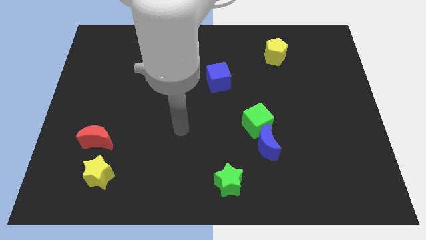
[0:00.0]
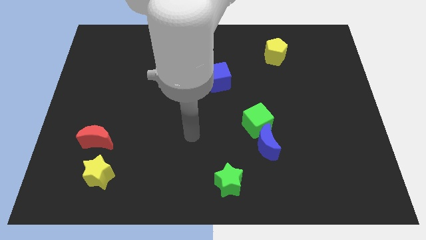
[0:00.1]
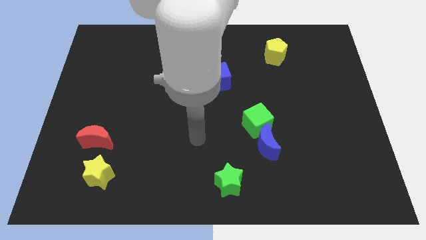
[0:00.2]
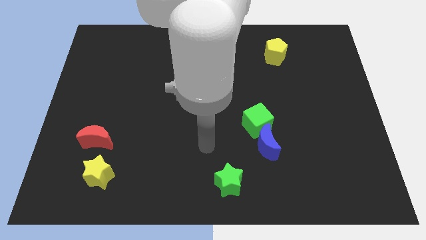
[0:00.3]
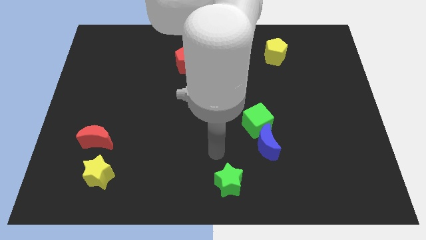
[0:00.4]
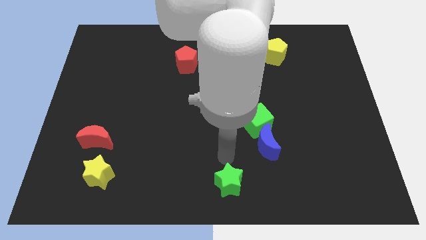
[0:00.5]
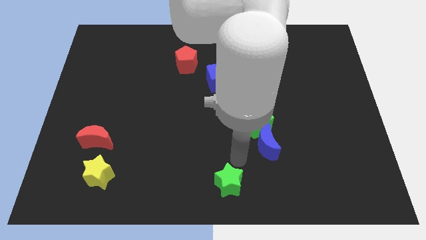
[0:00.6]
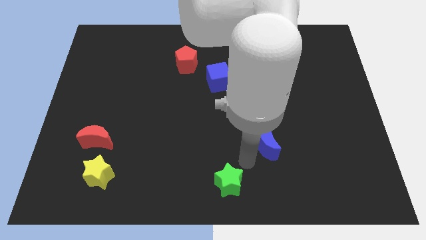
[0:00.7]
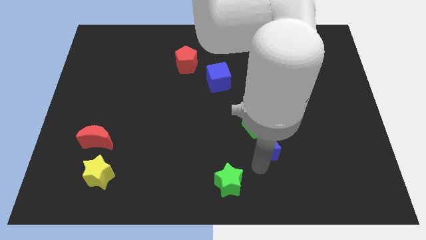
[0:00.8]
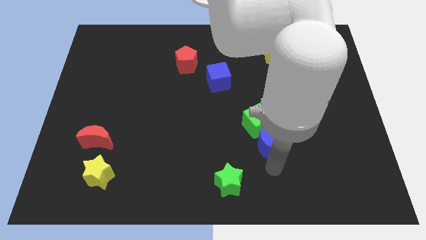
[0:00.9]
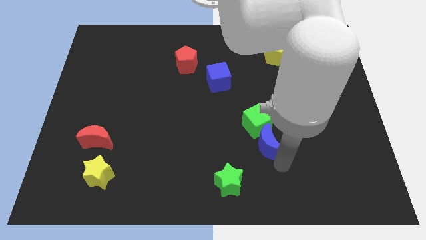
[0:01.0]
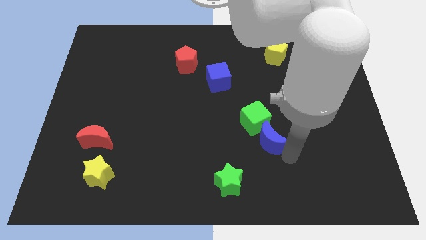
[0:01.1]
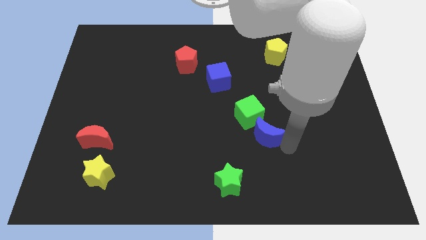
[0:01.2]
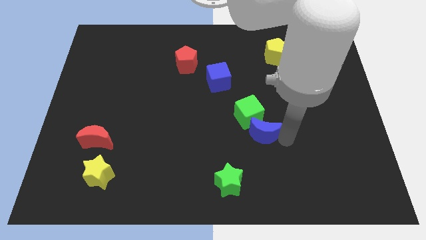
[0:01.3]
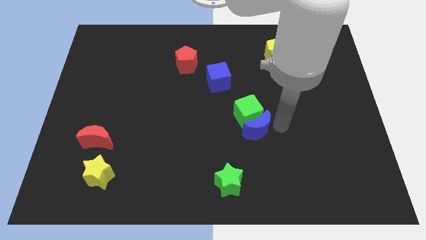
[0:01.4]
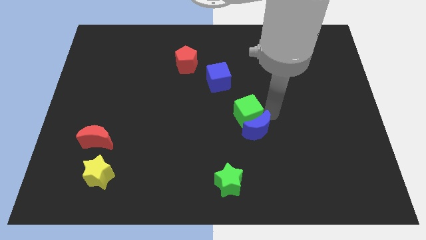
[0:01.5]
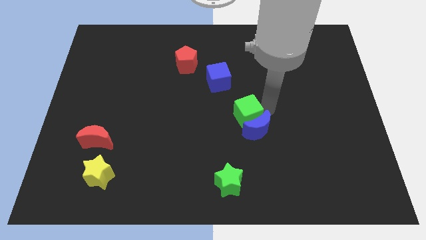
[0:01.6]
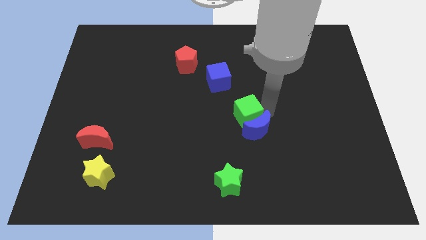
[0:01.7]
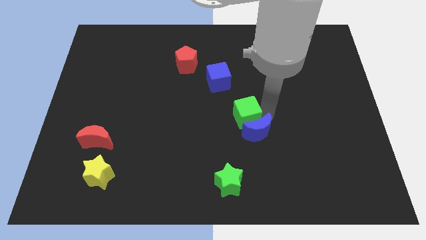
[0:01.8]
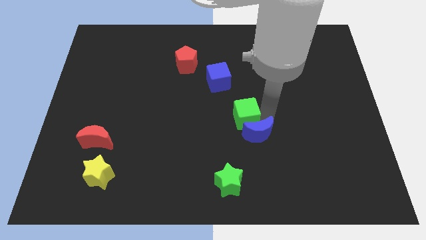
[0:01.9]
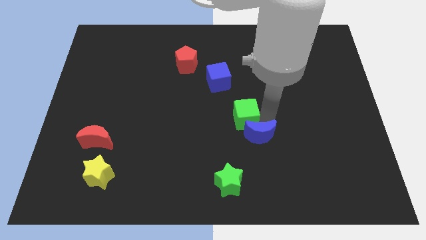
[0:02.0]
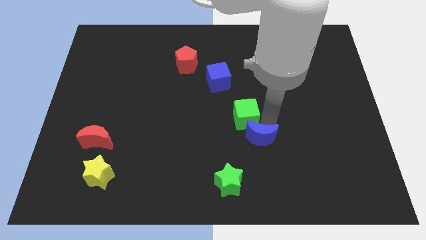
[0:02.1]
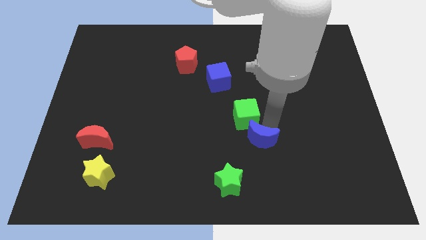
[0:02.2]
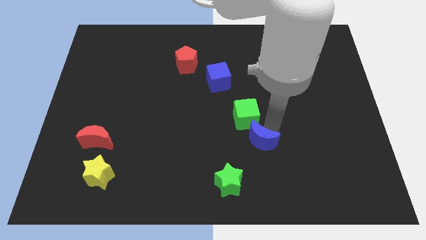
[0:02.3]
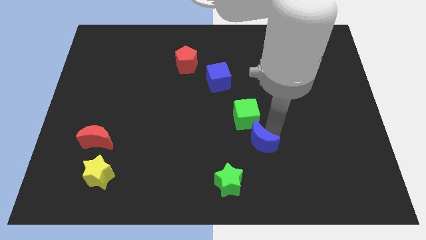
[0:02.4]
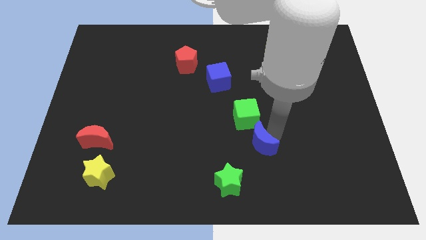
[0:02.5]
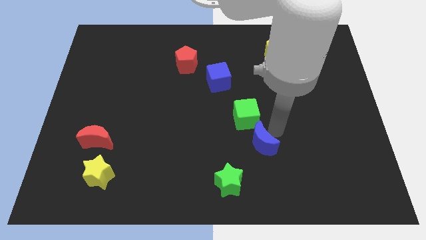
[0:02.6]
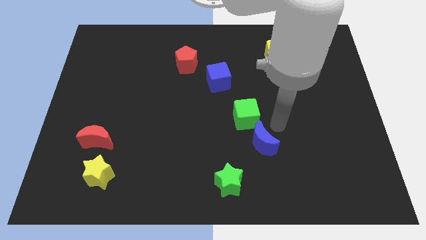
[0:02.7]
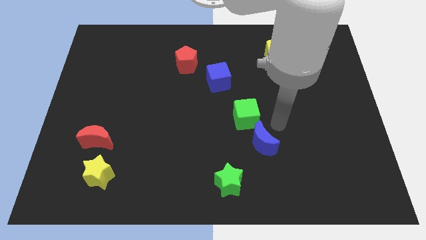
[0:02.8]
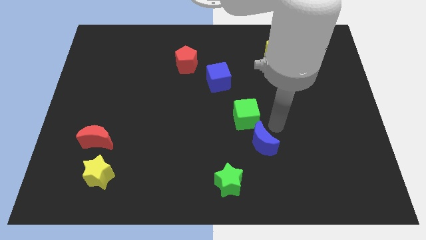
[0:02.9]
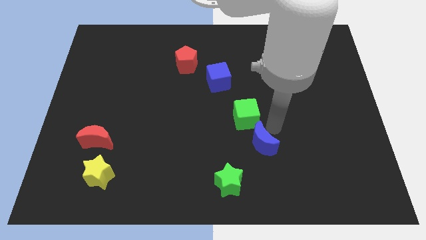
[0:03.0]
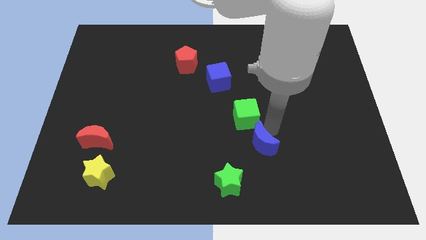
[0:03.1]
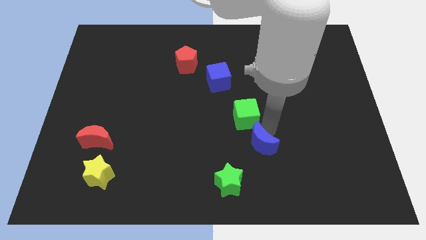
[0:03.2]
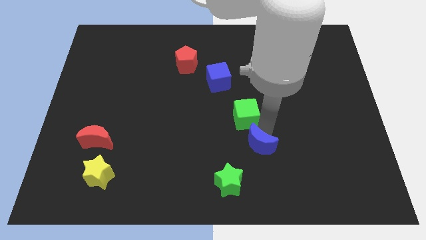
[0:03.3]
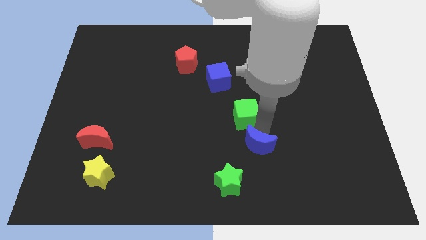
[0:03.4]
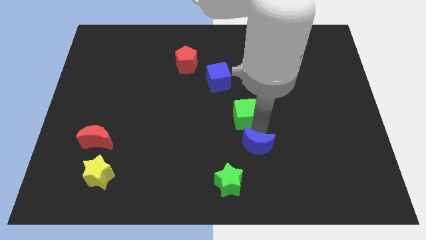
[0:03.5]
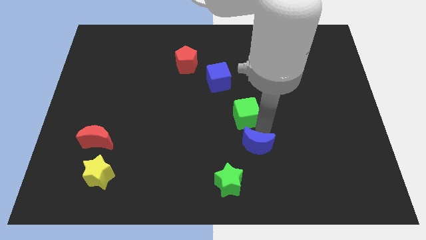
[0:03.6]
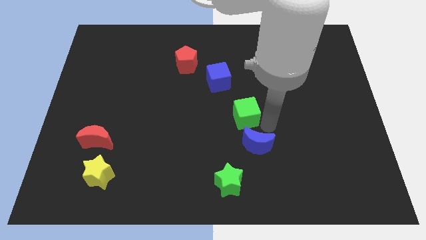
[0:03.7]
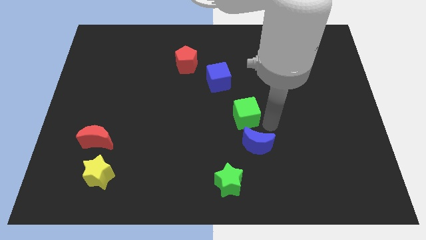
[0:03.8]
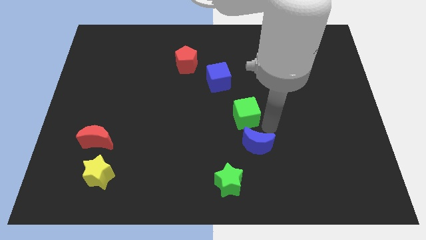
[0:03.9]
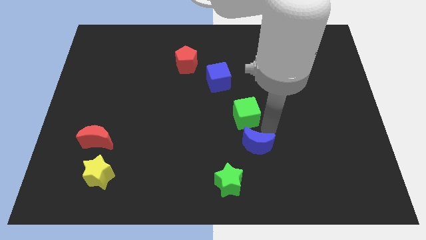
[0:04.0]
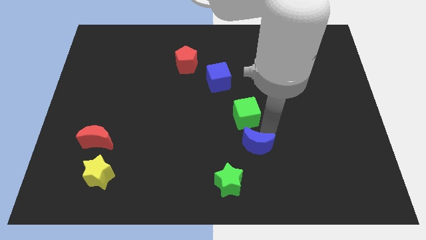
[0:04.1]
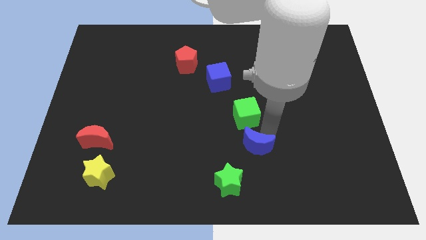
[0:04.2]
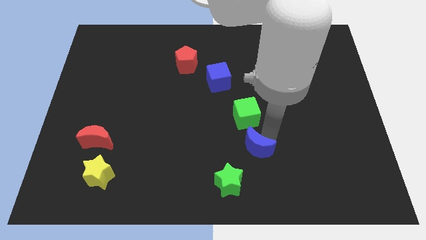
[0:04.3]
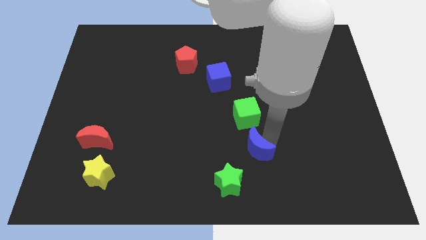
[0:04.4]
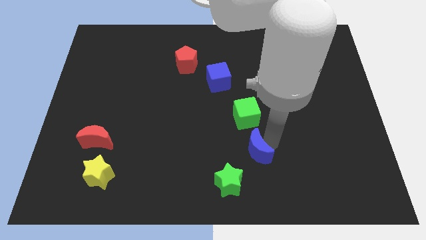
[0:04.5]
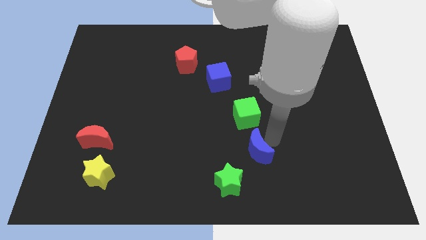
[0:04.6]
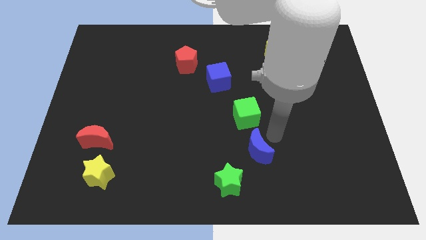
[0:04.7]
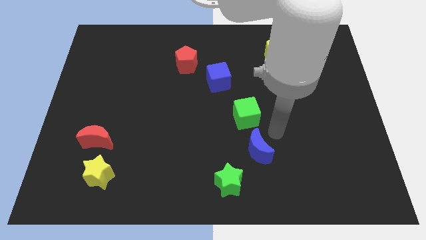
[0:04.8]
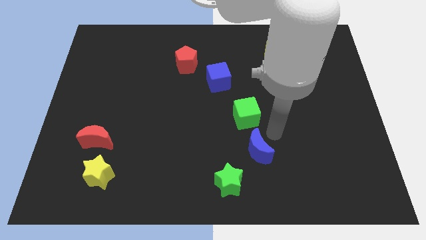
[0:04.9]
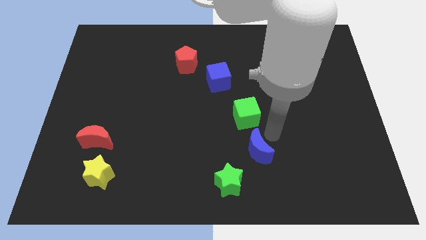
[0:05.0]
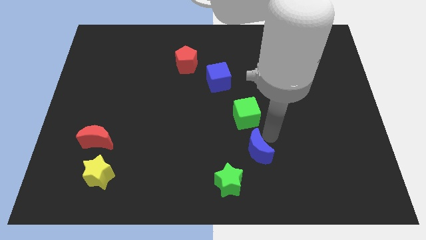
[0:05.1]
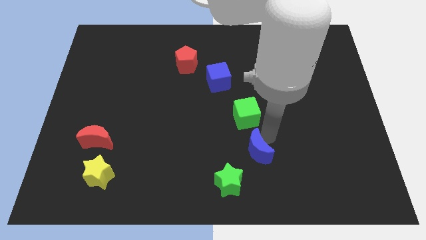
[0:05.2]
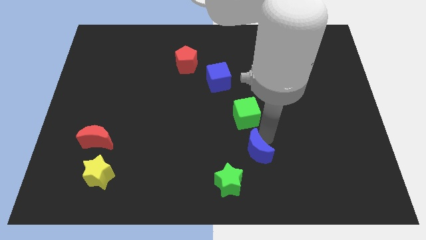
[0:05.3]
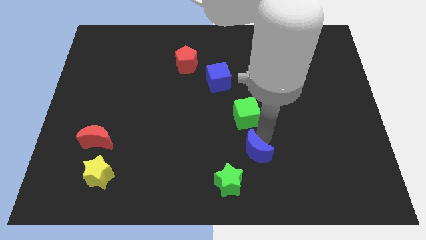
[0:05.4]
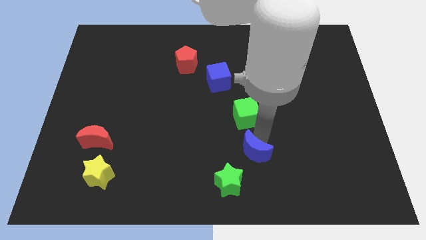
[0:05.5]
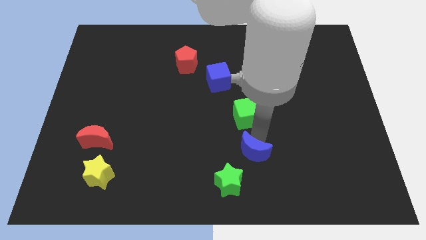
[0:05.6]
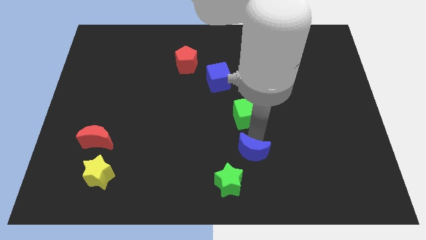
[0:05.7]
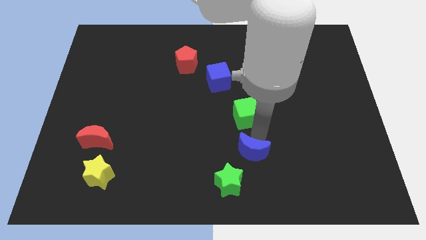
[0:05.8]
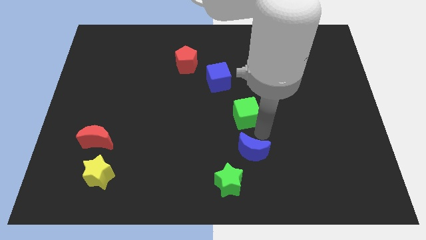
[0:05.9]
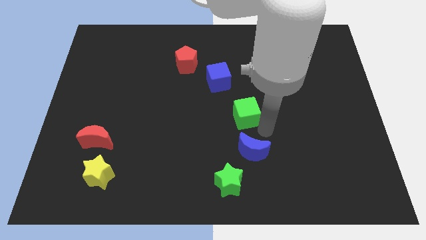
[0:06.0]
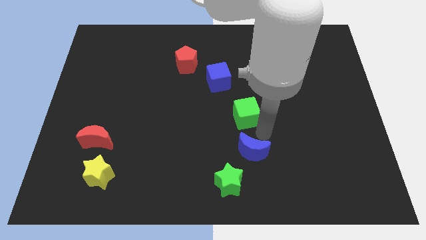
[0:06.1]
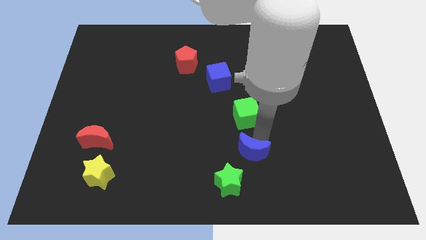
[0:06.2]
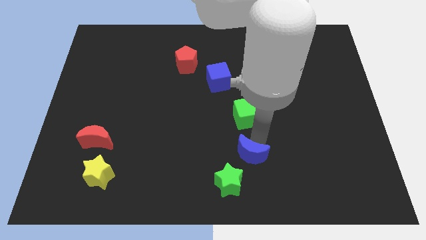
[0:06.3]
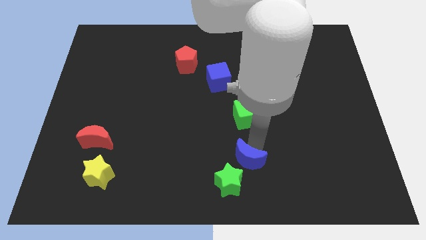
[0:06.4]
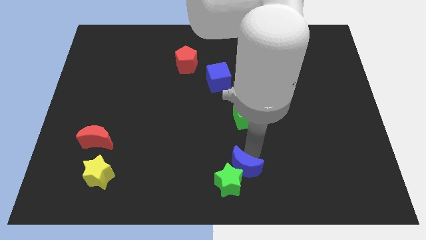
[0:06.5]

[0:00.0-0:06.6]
move the blue moon to the green star

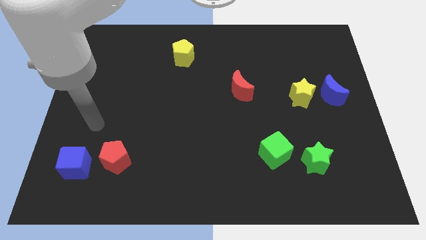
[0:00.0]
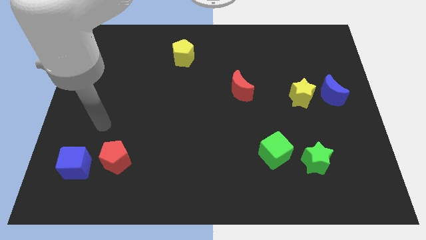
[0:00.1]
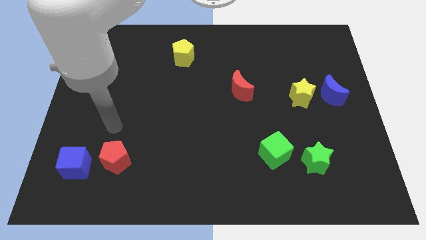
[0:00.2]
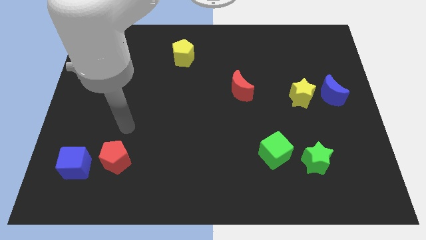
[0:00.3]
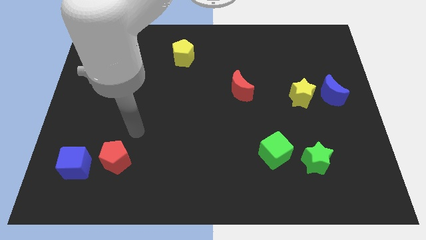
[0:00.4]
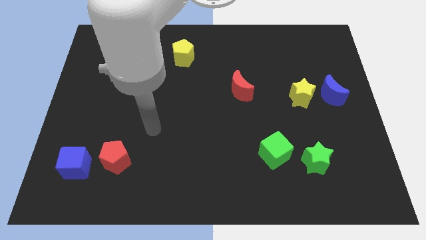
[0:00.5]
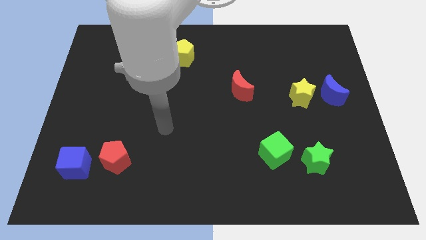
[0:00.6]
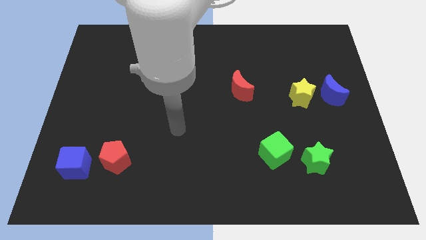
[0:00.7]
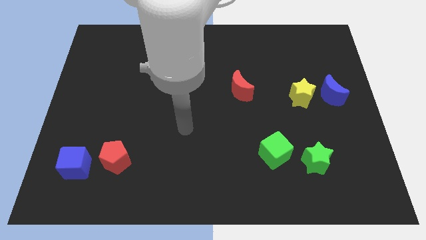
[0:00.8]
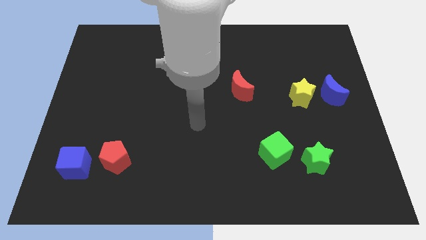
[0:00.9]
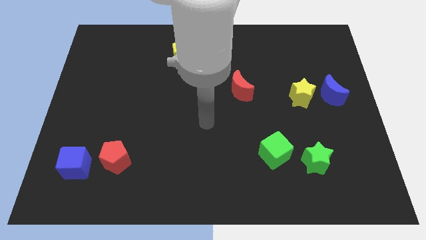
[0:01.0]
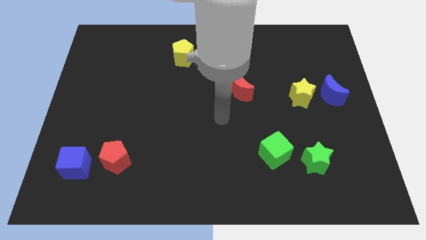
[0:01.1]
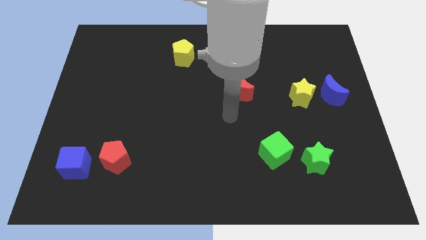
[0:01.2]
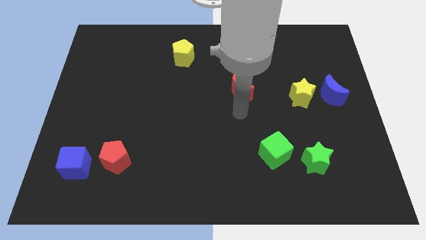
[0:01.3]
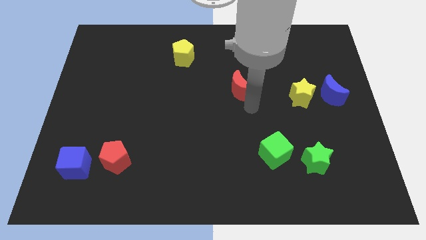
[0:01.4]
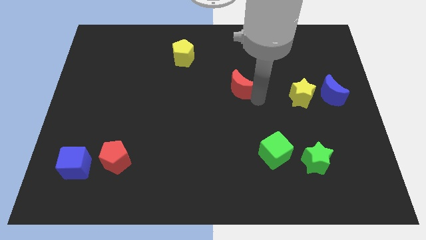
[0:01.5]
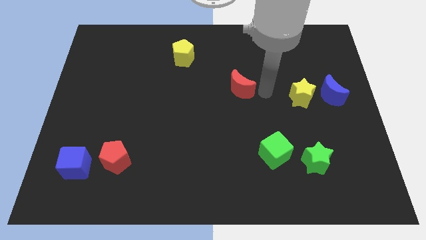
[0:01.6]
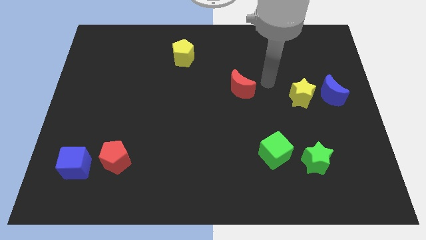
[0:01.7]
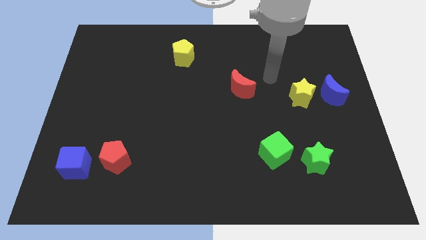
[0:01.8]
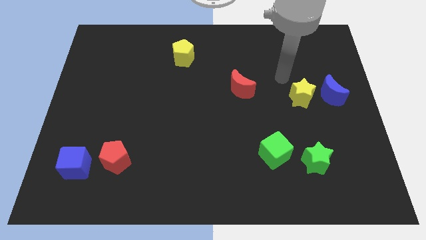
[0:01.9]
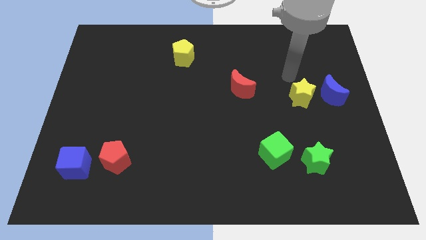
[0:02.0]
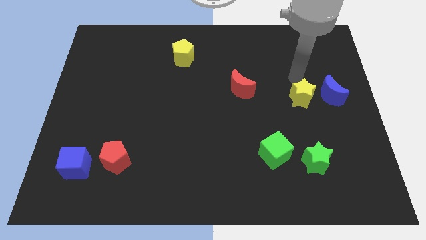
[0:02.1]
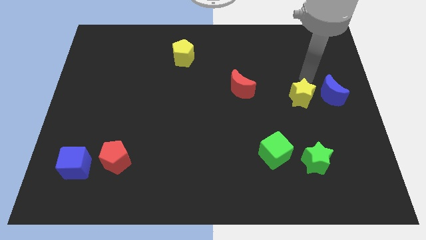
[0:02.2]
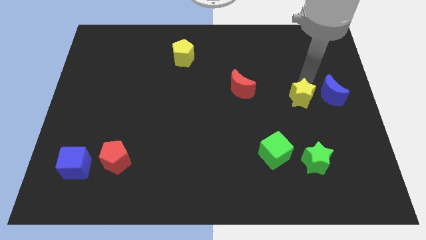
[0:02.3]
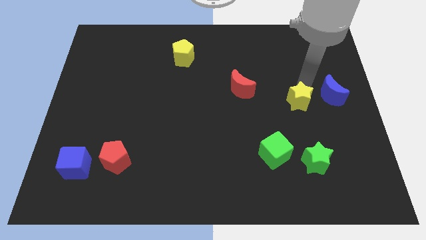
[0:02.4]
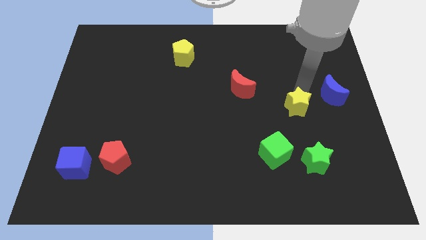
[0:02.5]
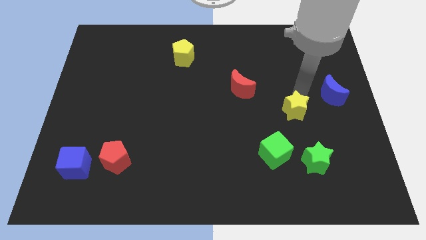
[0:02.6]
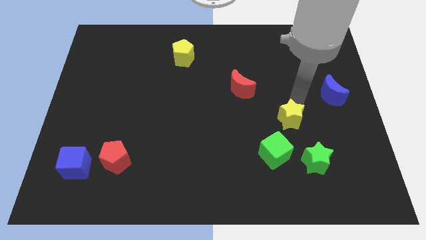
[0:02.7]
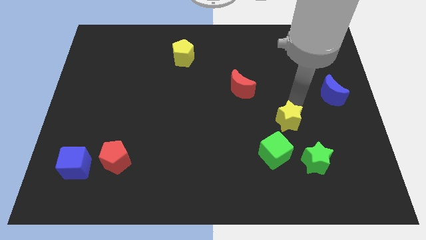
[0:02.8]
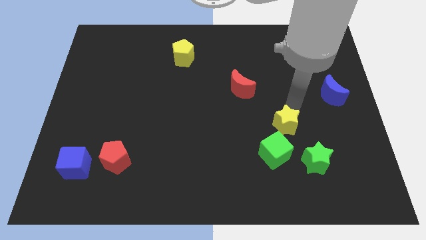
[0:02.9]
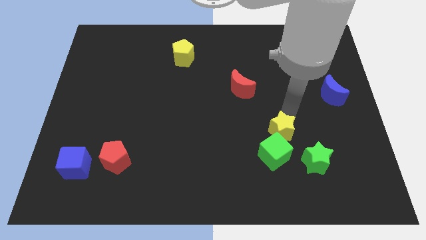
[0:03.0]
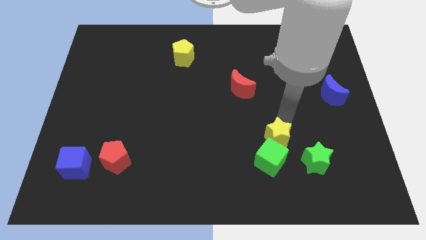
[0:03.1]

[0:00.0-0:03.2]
slide the yellow star next to the green cube
